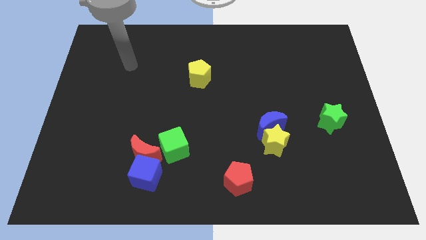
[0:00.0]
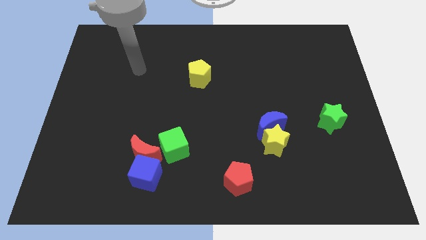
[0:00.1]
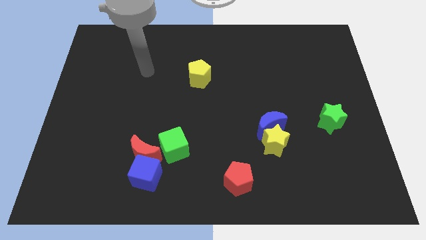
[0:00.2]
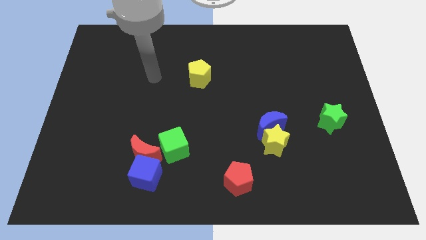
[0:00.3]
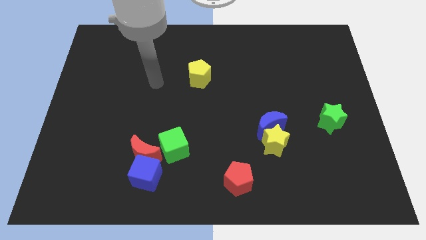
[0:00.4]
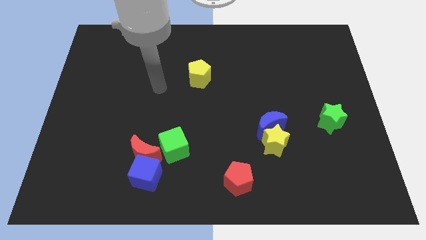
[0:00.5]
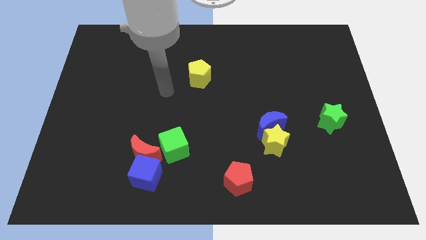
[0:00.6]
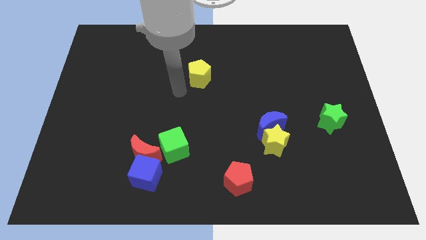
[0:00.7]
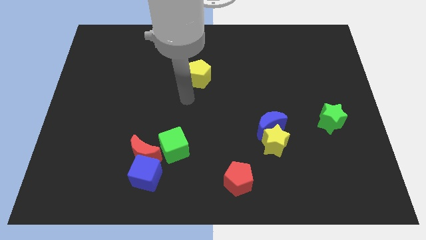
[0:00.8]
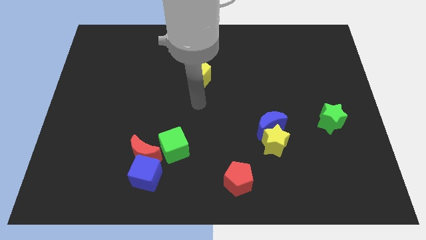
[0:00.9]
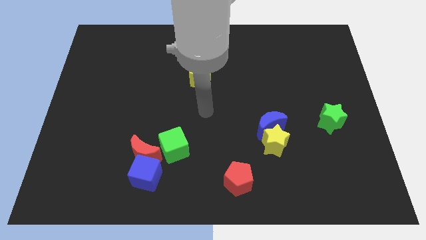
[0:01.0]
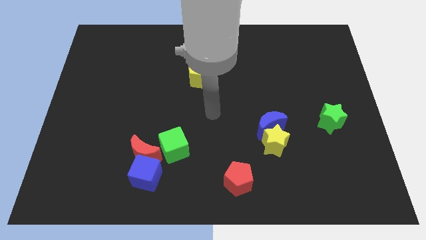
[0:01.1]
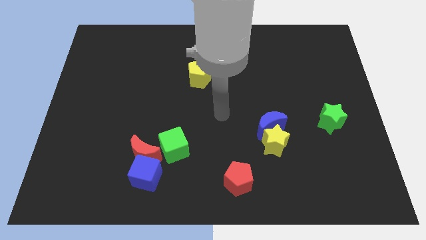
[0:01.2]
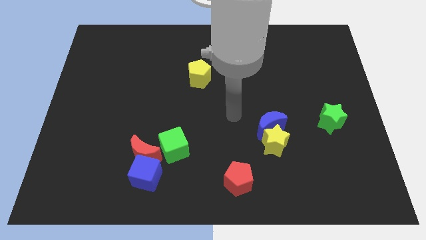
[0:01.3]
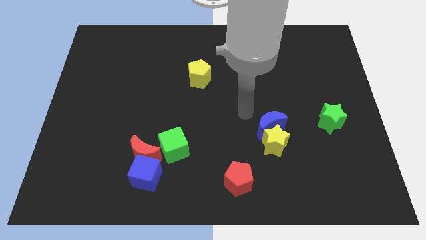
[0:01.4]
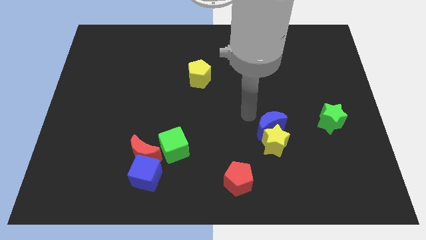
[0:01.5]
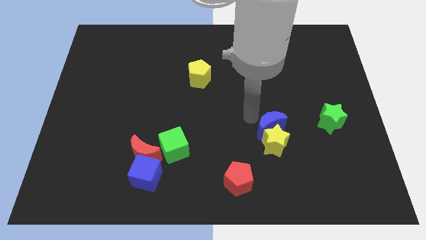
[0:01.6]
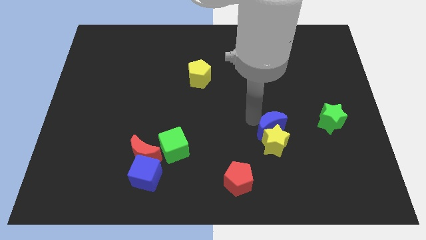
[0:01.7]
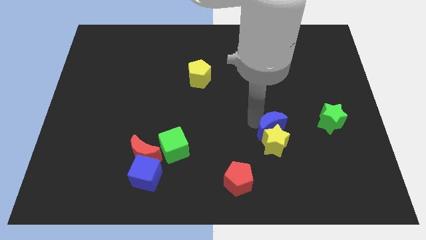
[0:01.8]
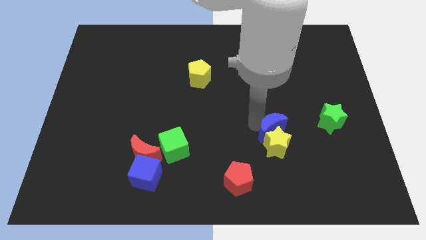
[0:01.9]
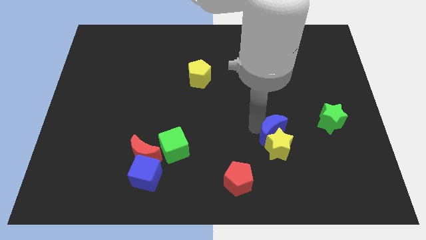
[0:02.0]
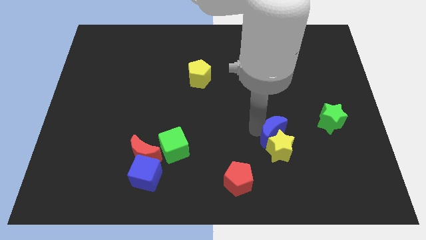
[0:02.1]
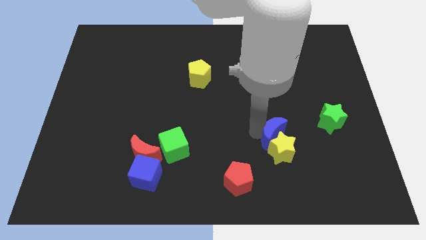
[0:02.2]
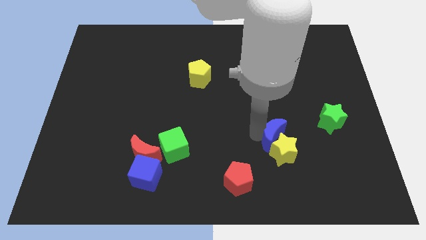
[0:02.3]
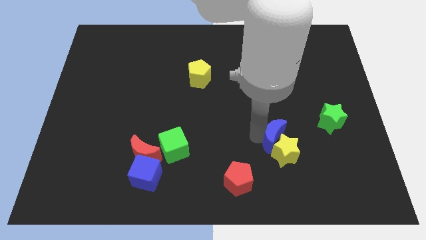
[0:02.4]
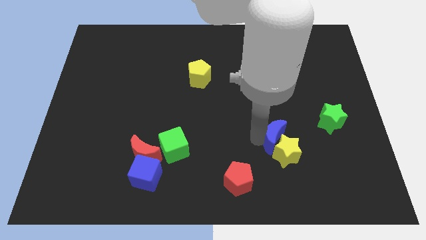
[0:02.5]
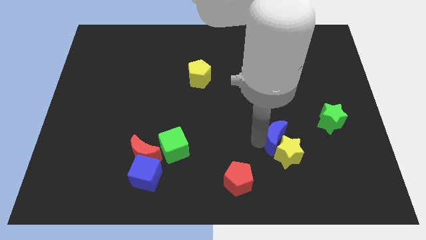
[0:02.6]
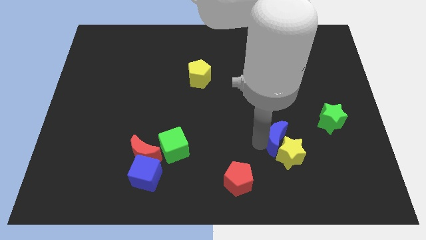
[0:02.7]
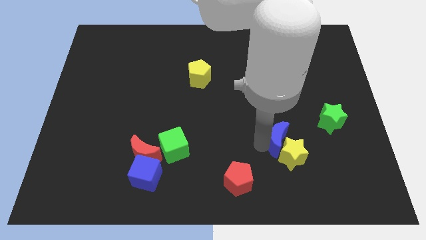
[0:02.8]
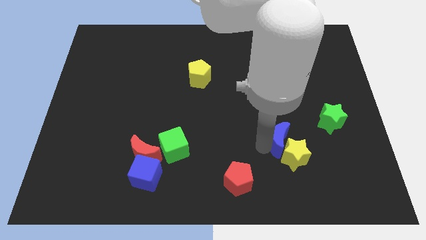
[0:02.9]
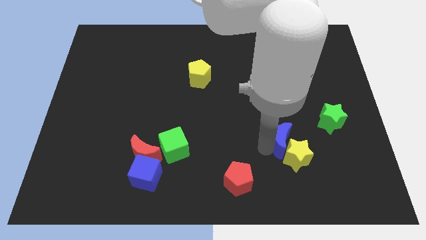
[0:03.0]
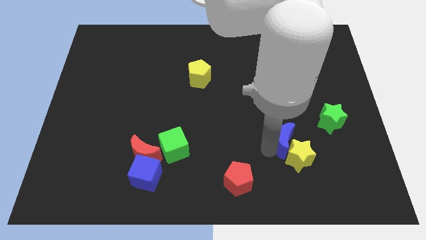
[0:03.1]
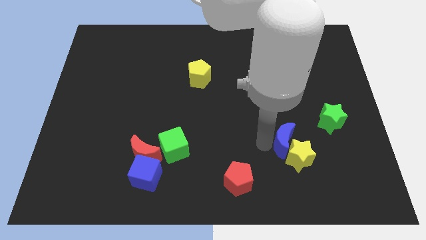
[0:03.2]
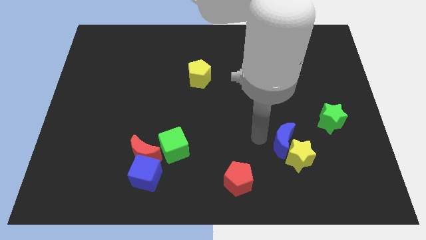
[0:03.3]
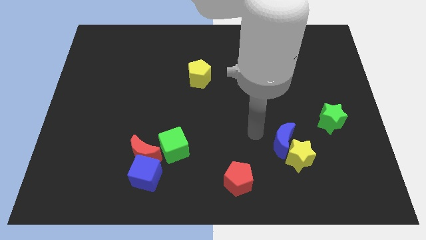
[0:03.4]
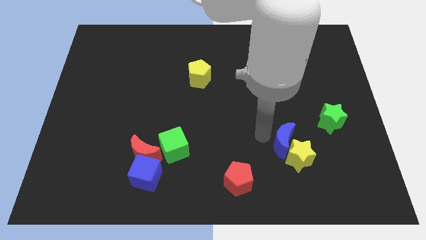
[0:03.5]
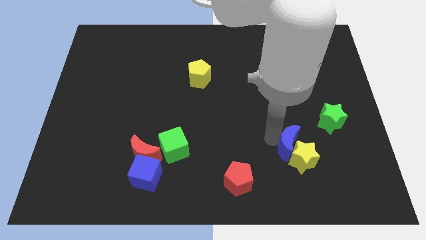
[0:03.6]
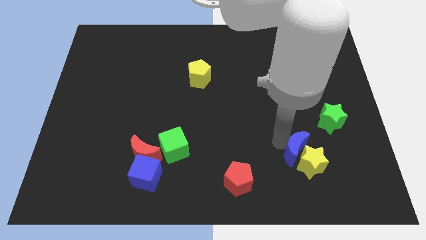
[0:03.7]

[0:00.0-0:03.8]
slightly slide the blue moon downwards and then to the right

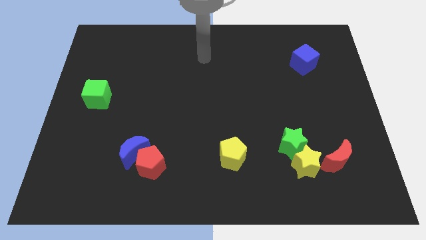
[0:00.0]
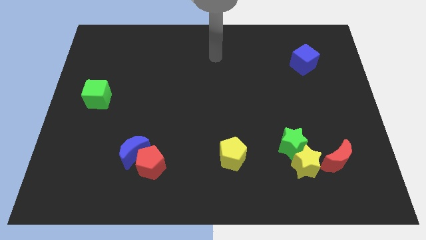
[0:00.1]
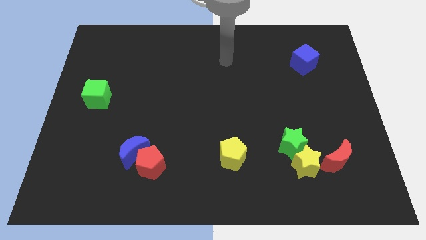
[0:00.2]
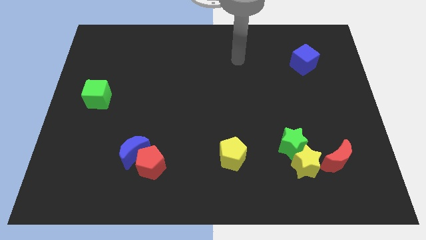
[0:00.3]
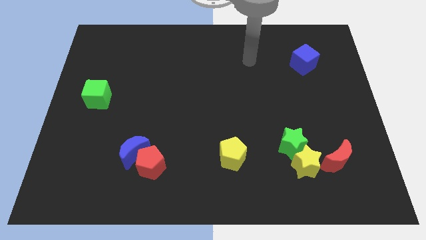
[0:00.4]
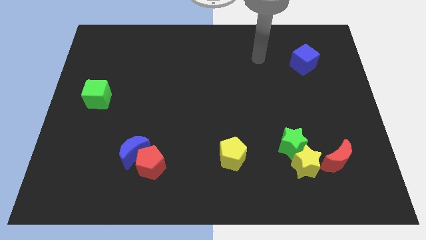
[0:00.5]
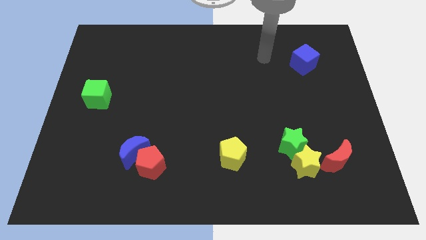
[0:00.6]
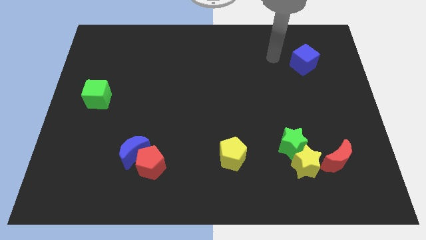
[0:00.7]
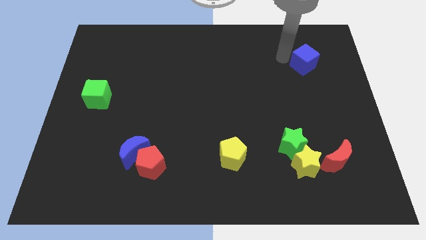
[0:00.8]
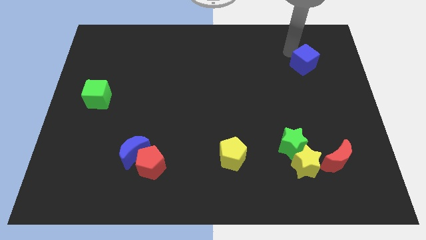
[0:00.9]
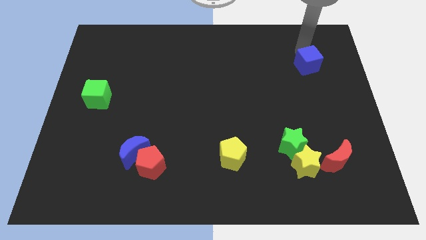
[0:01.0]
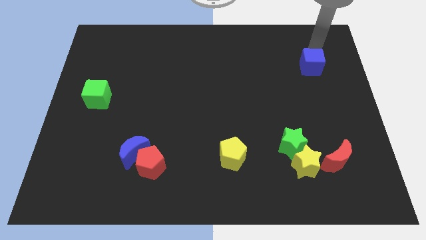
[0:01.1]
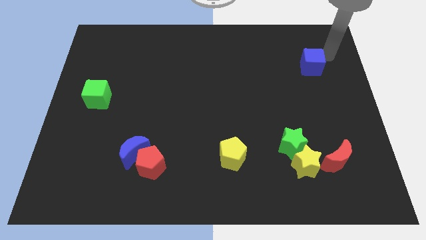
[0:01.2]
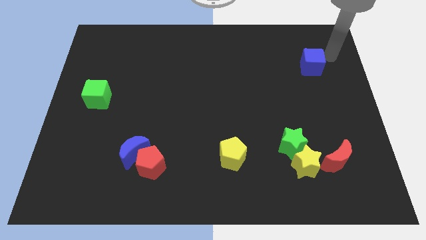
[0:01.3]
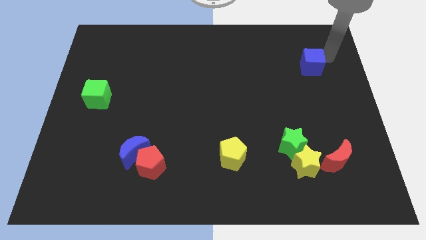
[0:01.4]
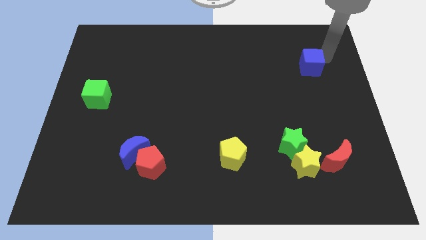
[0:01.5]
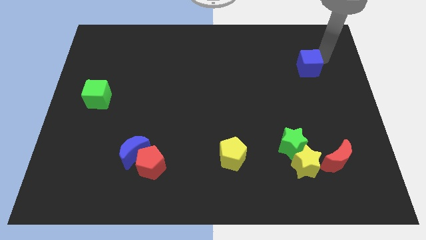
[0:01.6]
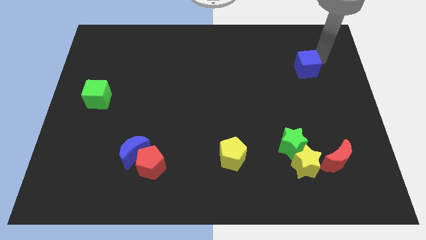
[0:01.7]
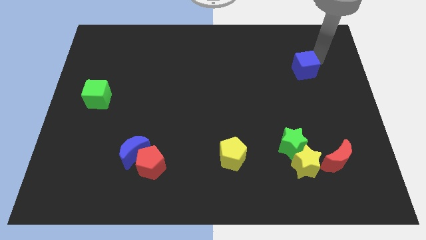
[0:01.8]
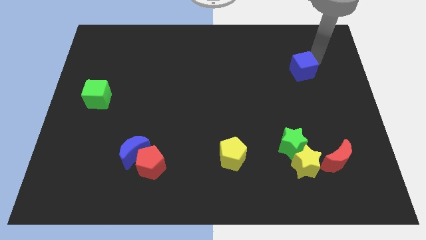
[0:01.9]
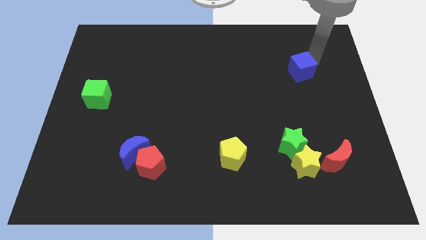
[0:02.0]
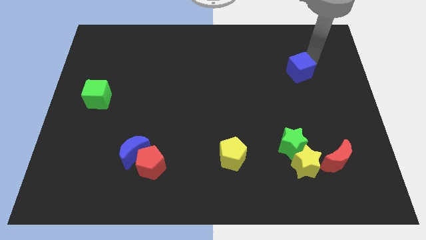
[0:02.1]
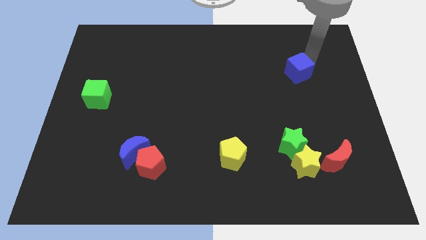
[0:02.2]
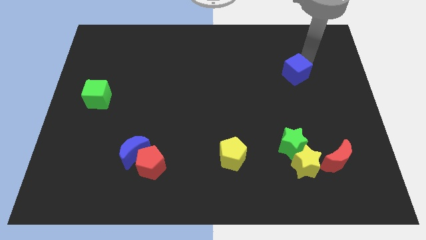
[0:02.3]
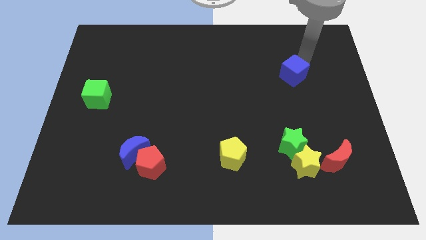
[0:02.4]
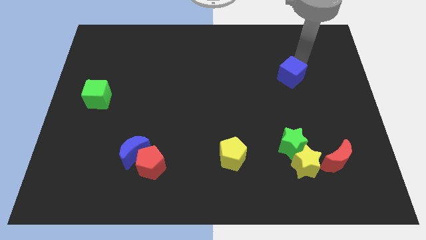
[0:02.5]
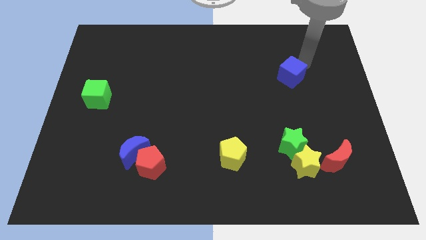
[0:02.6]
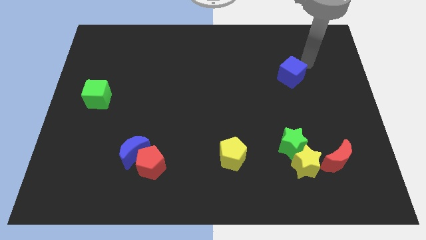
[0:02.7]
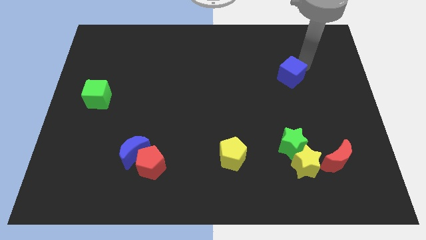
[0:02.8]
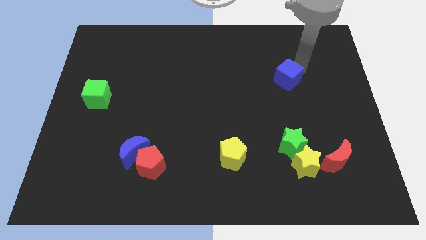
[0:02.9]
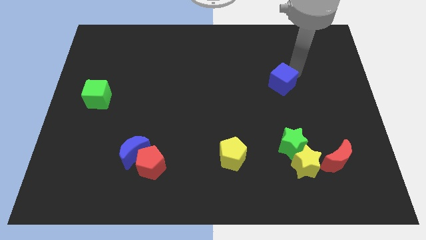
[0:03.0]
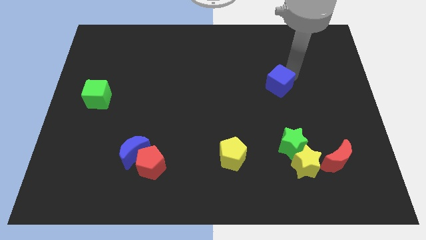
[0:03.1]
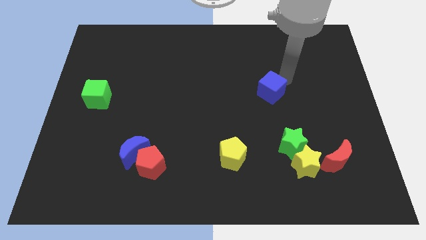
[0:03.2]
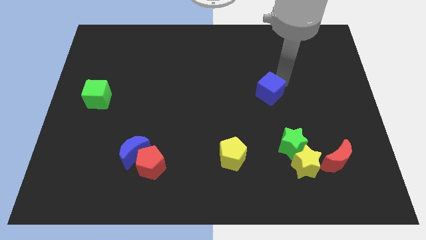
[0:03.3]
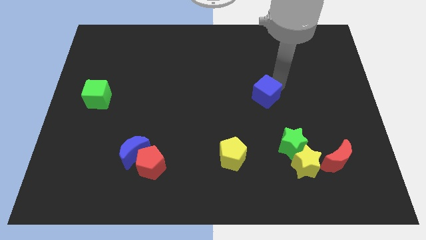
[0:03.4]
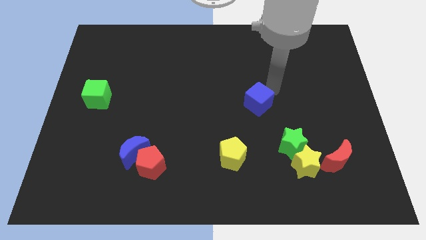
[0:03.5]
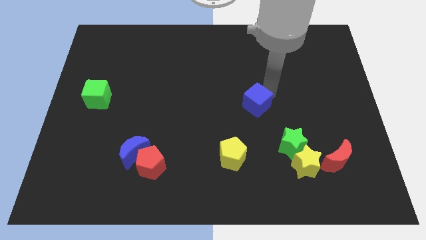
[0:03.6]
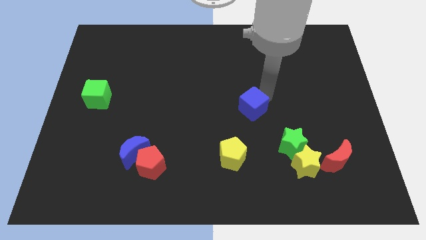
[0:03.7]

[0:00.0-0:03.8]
slide the blue cube down and then to the left

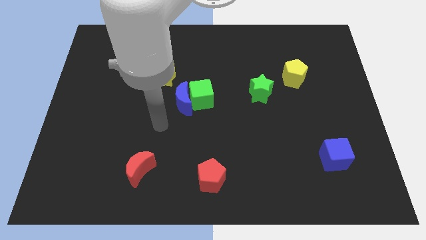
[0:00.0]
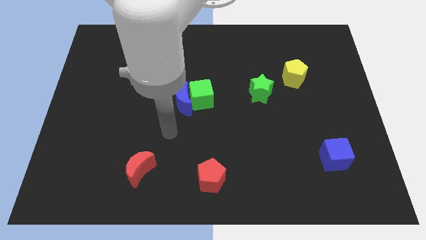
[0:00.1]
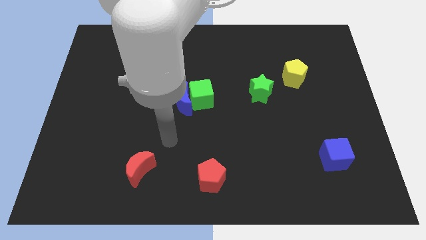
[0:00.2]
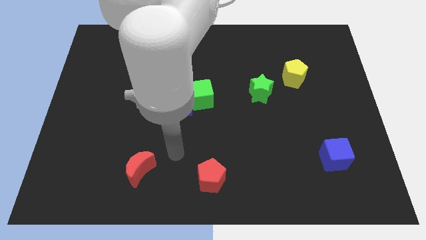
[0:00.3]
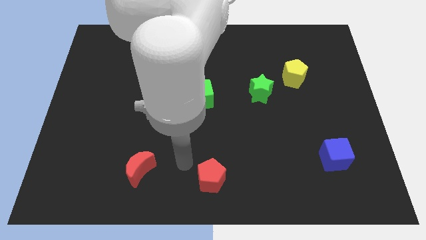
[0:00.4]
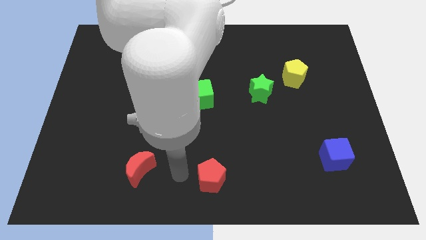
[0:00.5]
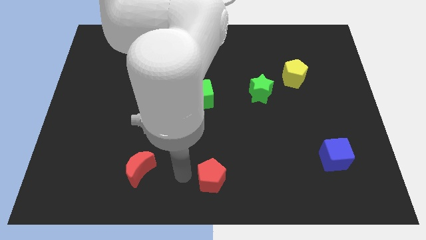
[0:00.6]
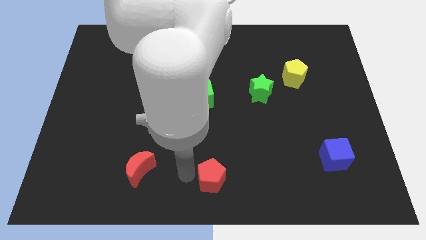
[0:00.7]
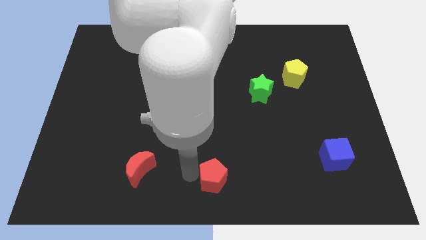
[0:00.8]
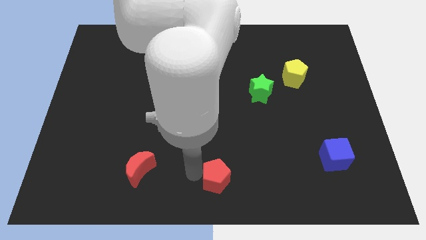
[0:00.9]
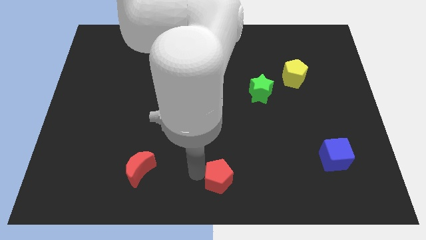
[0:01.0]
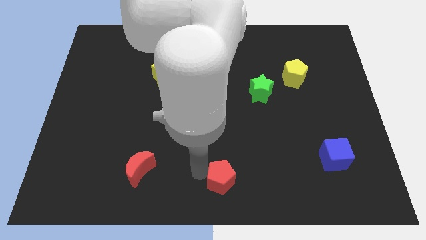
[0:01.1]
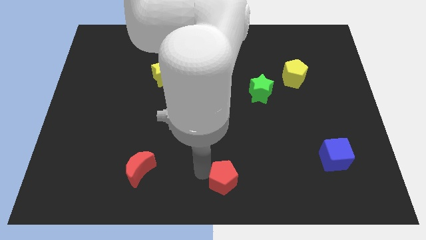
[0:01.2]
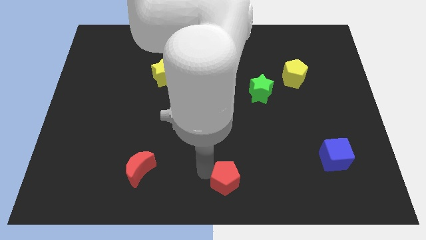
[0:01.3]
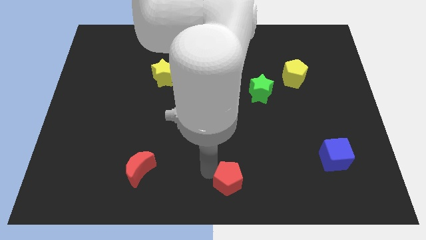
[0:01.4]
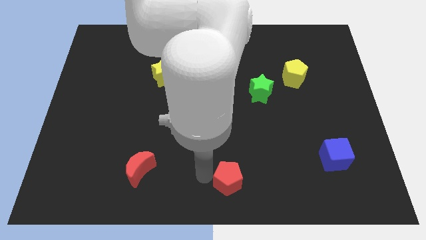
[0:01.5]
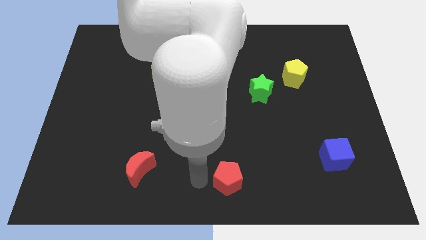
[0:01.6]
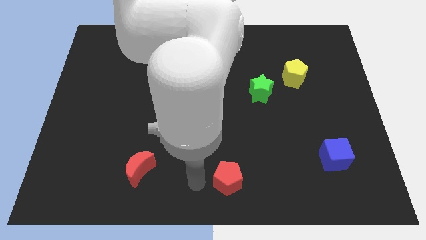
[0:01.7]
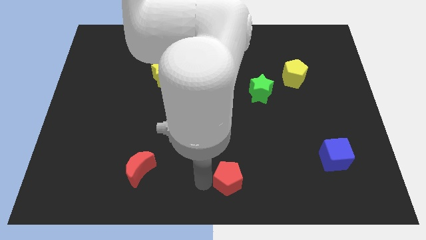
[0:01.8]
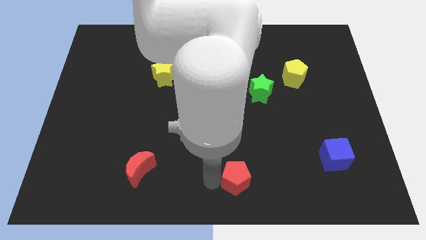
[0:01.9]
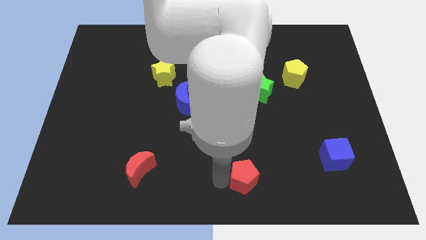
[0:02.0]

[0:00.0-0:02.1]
push the red pentagon right slightly
